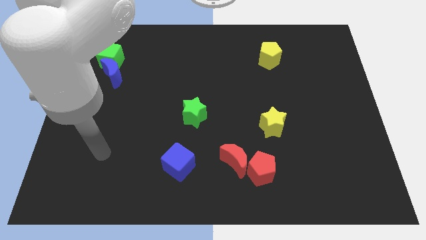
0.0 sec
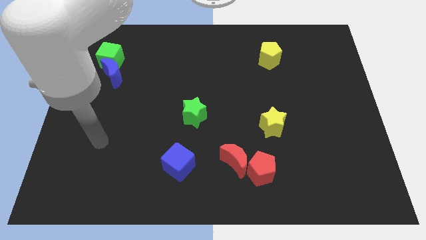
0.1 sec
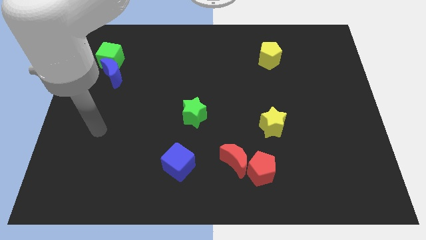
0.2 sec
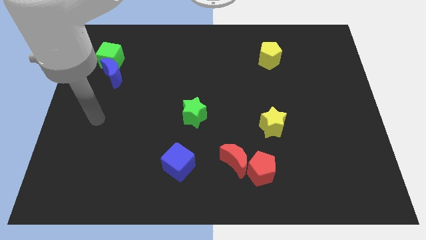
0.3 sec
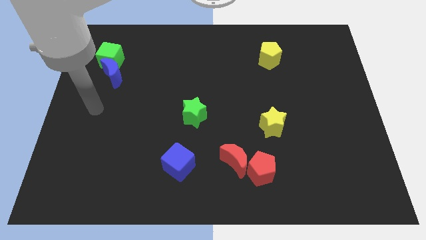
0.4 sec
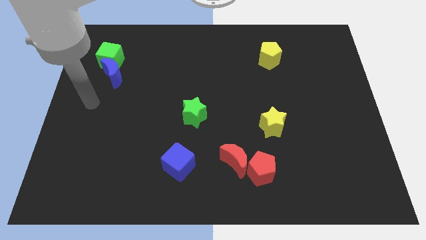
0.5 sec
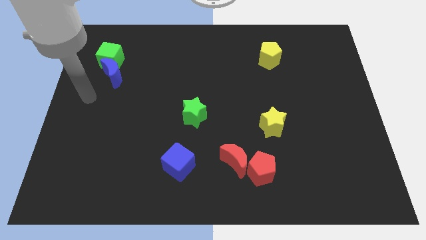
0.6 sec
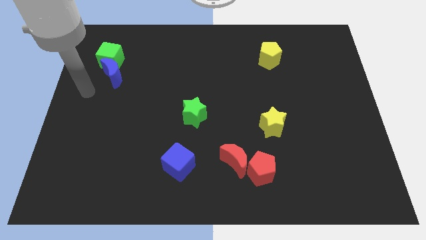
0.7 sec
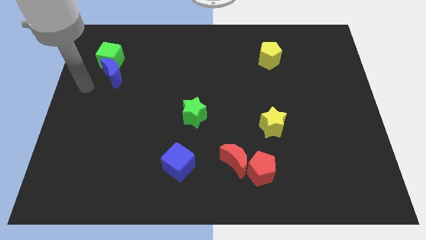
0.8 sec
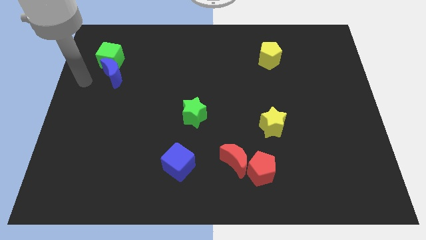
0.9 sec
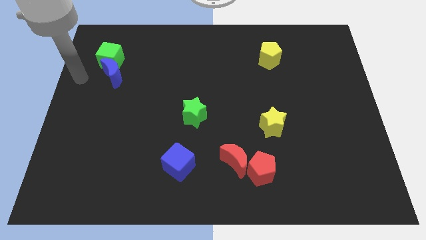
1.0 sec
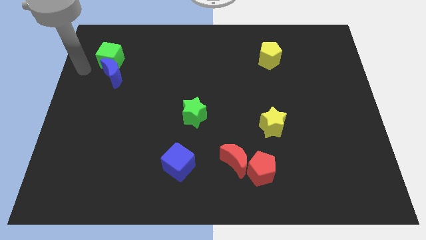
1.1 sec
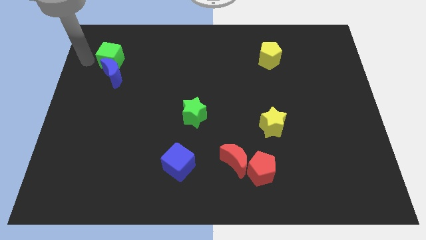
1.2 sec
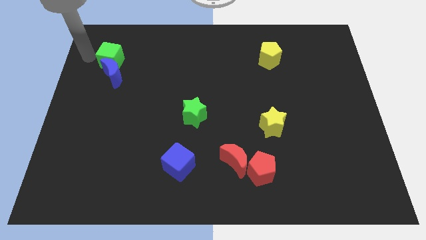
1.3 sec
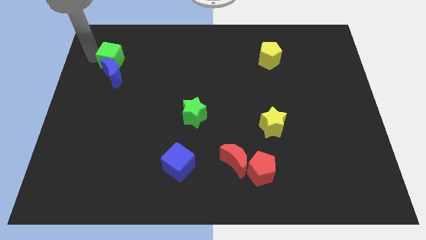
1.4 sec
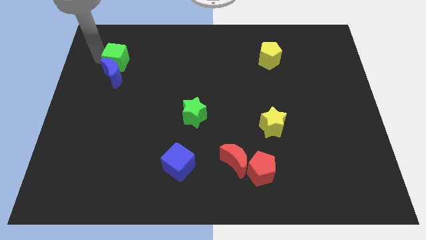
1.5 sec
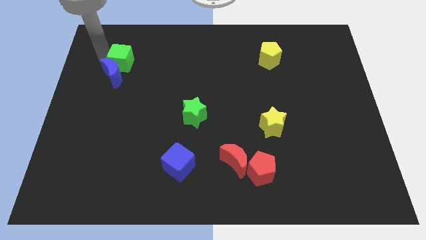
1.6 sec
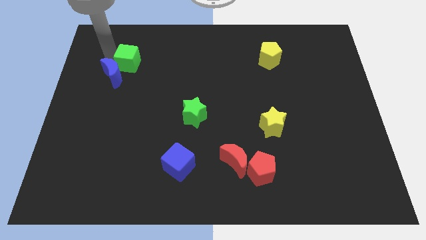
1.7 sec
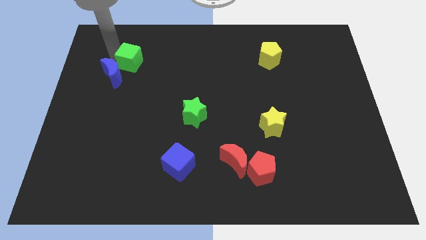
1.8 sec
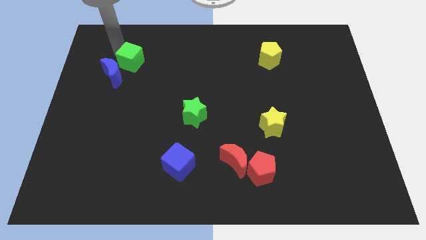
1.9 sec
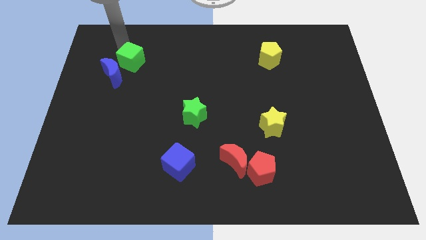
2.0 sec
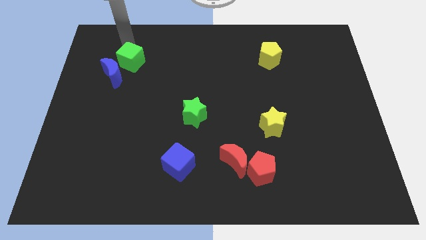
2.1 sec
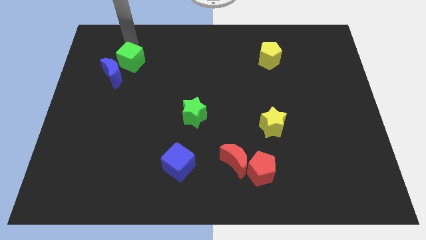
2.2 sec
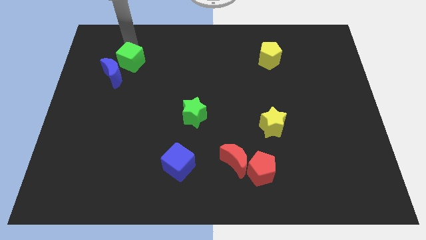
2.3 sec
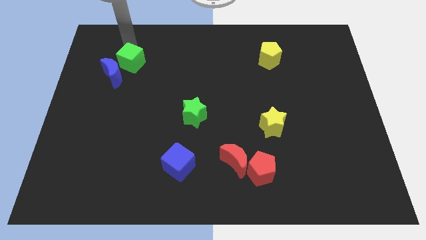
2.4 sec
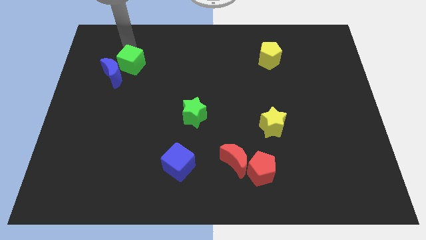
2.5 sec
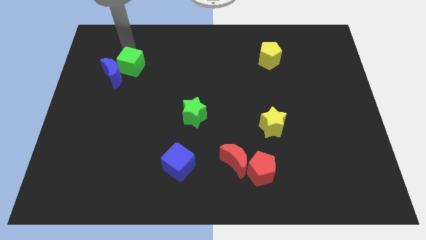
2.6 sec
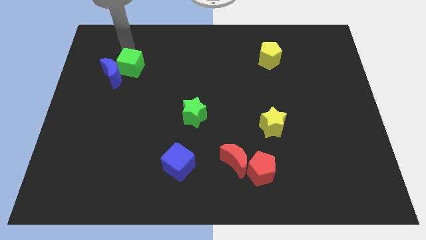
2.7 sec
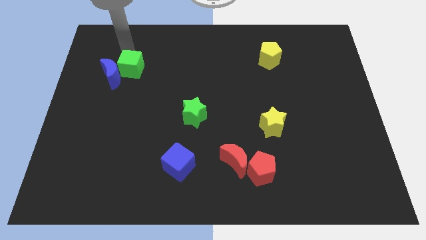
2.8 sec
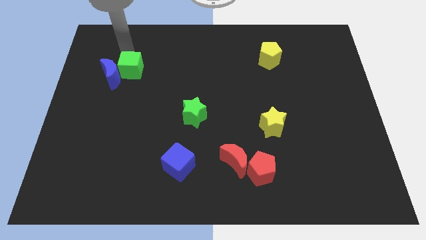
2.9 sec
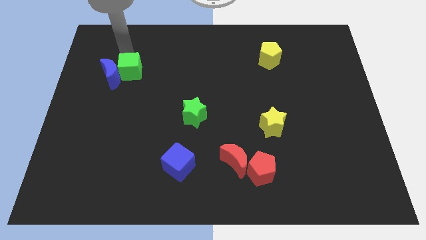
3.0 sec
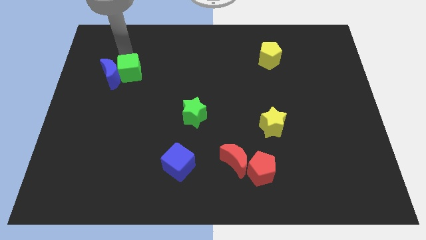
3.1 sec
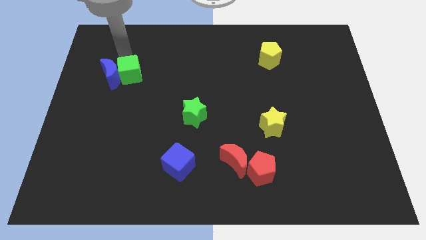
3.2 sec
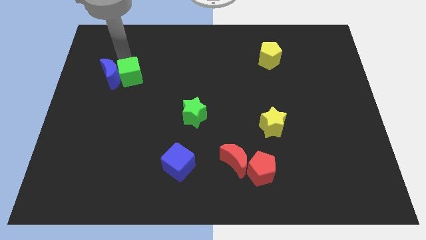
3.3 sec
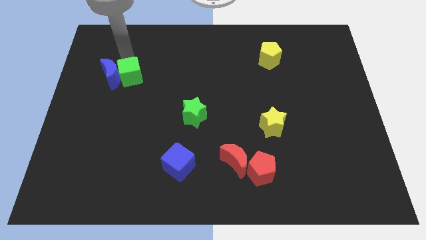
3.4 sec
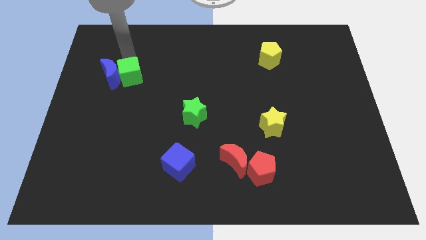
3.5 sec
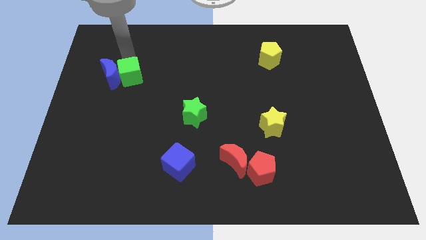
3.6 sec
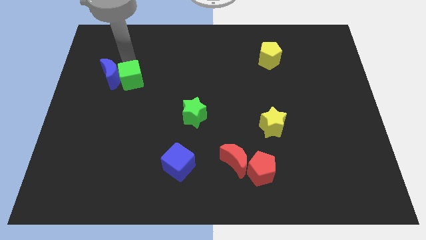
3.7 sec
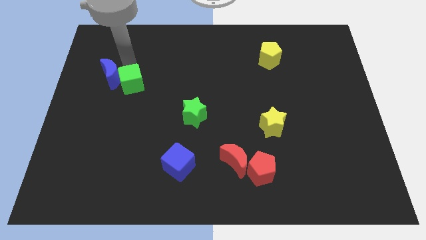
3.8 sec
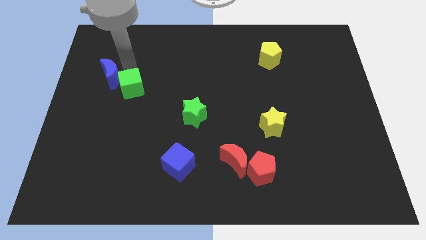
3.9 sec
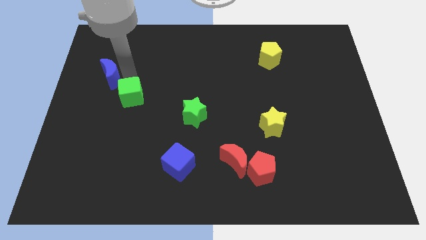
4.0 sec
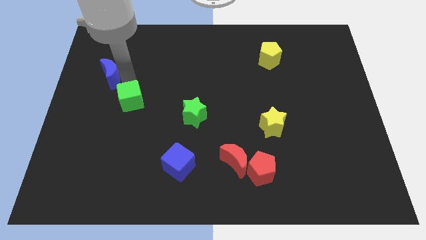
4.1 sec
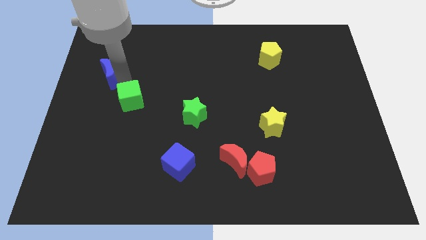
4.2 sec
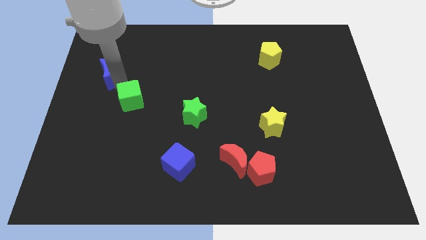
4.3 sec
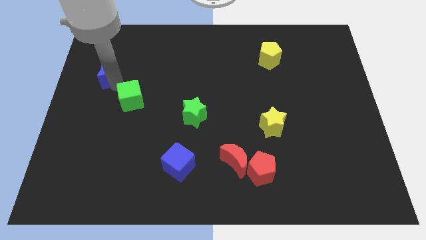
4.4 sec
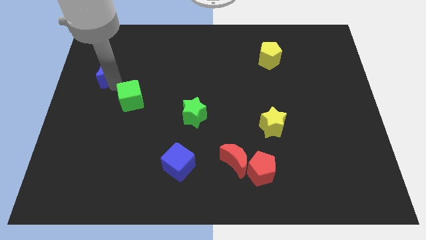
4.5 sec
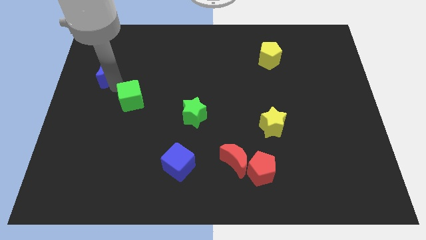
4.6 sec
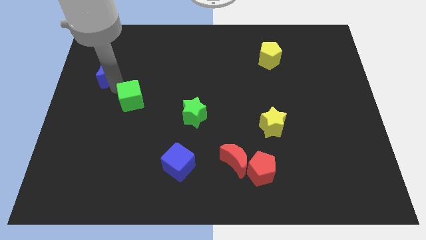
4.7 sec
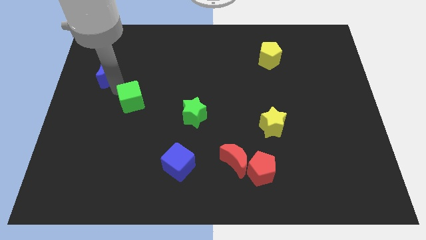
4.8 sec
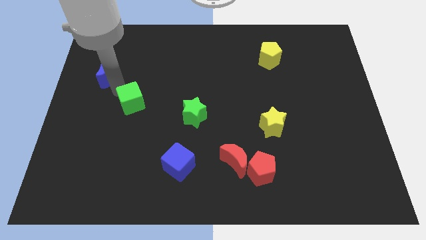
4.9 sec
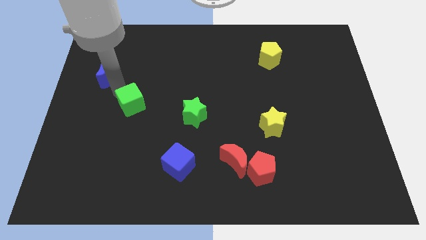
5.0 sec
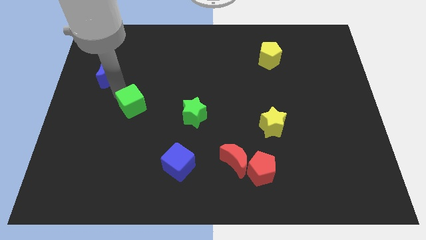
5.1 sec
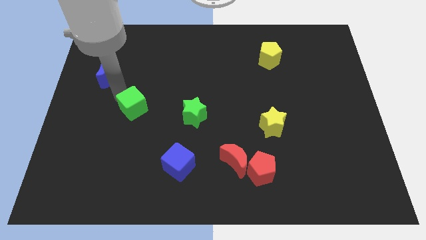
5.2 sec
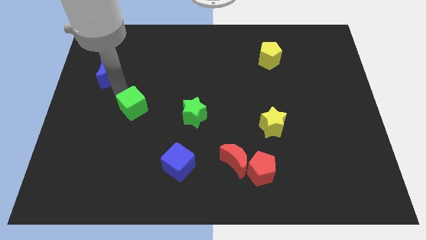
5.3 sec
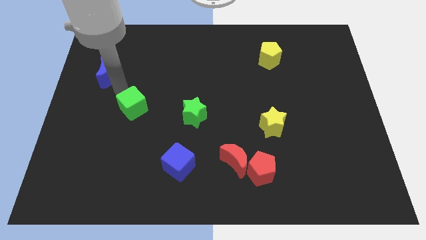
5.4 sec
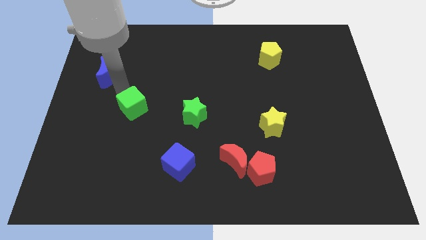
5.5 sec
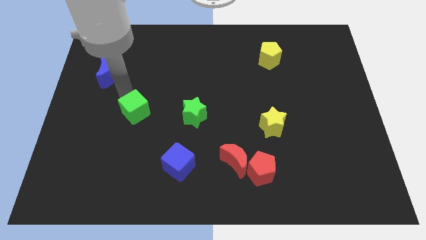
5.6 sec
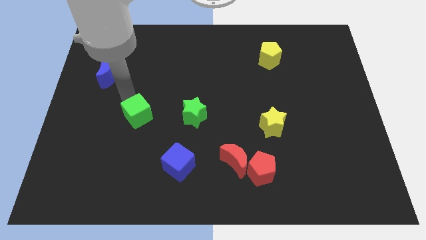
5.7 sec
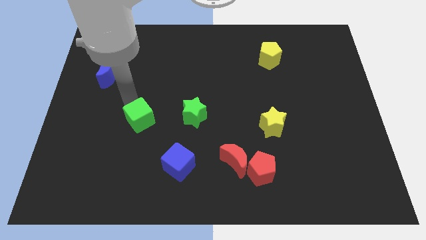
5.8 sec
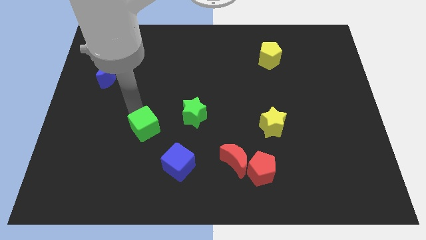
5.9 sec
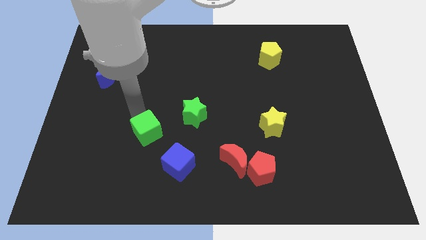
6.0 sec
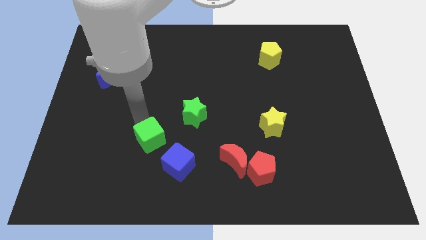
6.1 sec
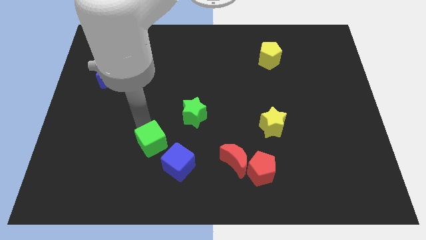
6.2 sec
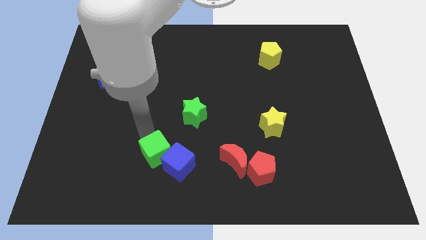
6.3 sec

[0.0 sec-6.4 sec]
push the green cube next to the blue cube

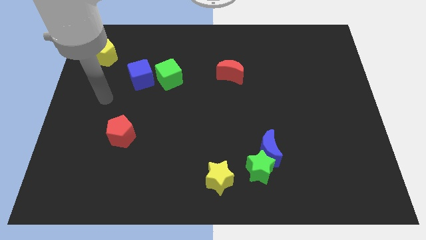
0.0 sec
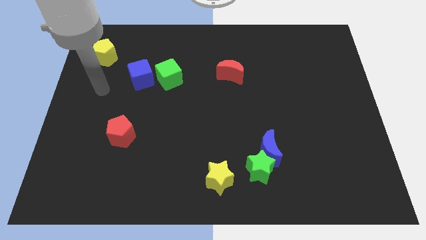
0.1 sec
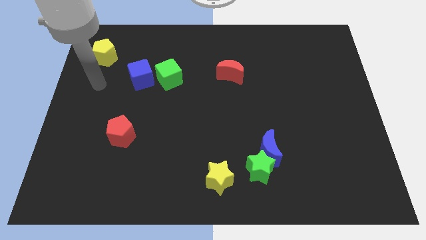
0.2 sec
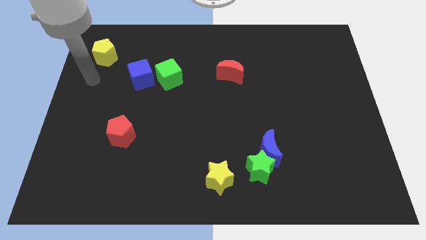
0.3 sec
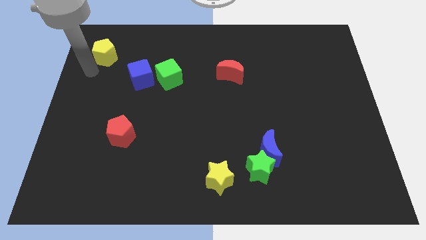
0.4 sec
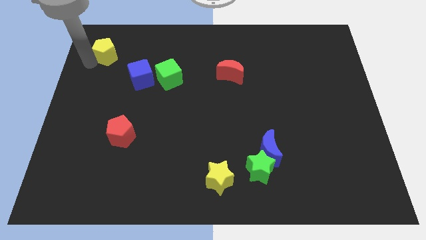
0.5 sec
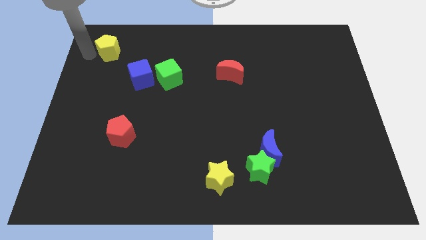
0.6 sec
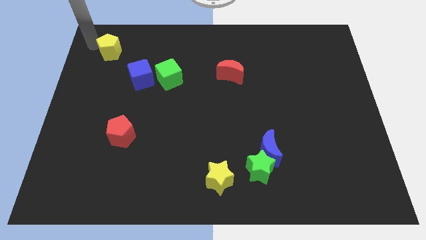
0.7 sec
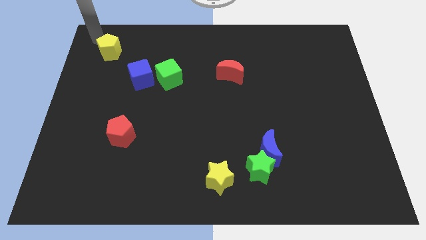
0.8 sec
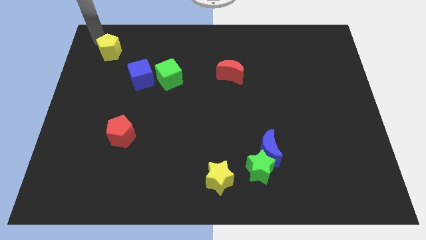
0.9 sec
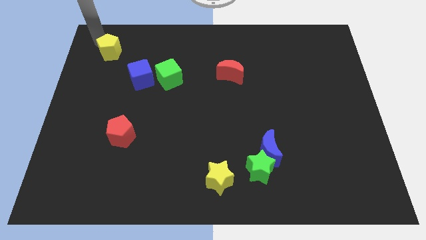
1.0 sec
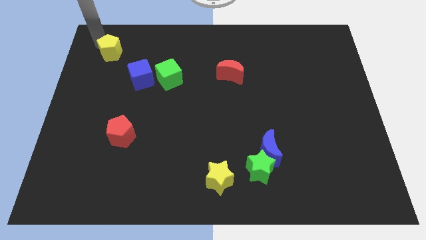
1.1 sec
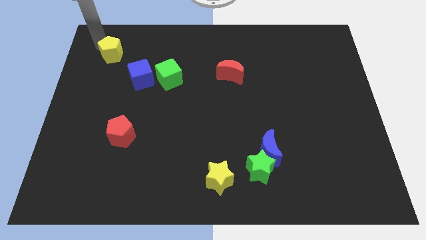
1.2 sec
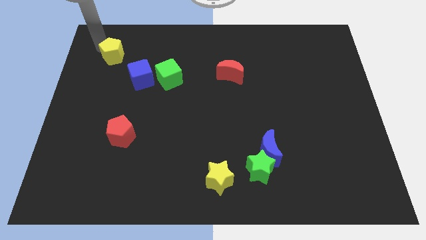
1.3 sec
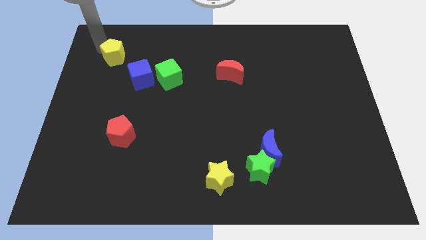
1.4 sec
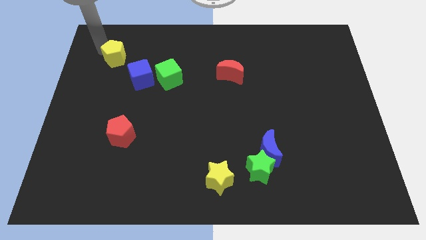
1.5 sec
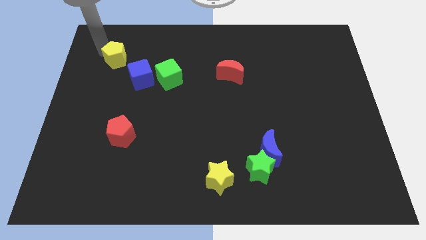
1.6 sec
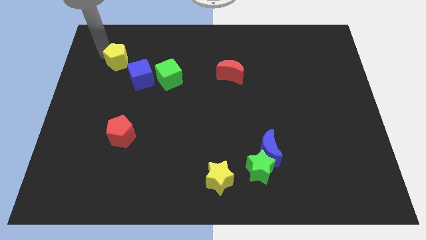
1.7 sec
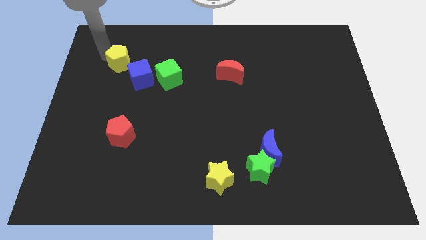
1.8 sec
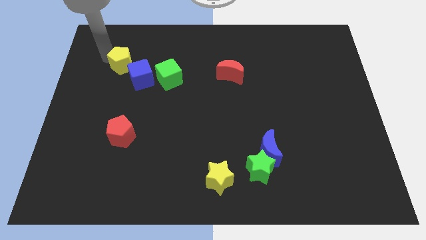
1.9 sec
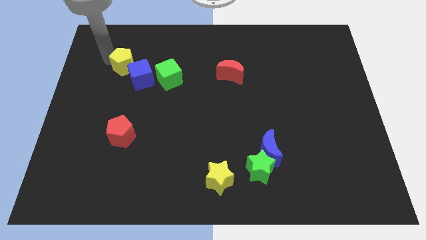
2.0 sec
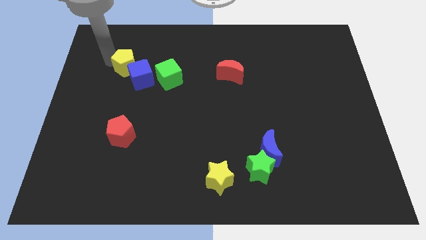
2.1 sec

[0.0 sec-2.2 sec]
slide the yellow pentagon towards the blue cube
